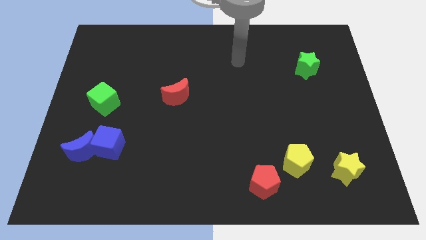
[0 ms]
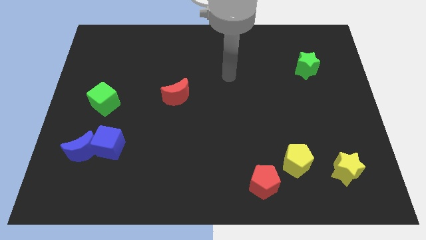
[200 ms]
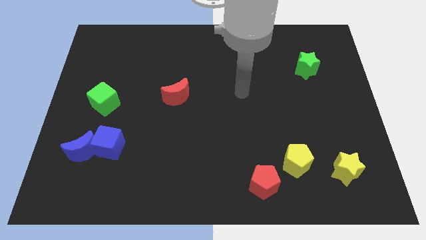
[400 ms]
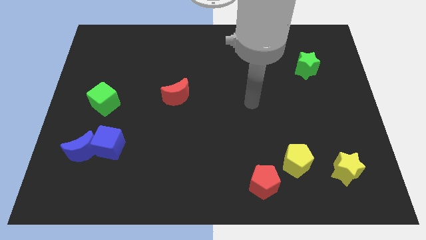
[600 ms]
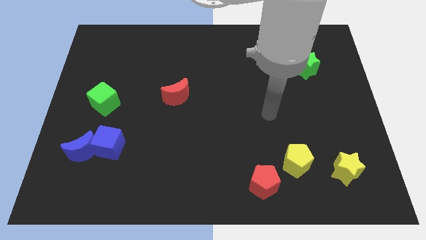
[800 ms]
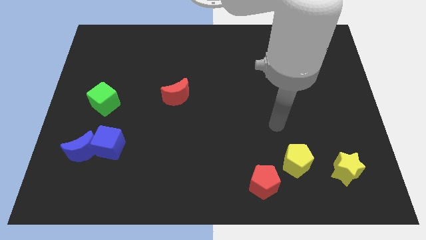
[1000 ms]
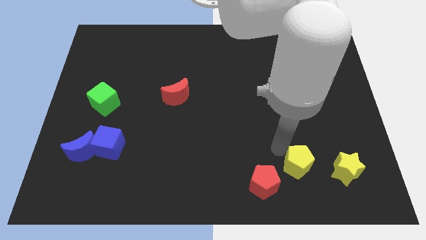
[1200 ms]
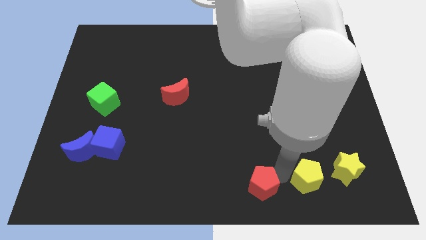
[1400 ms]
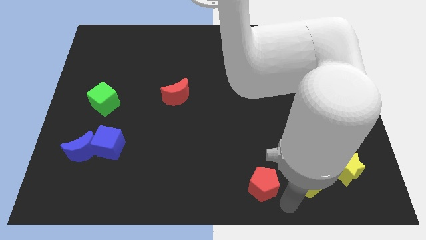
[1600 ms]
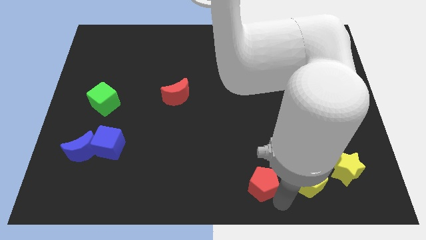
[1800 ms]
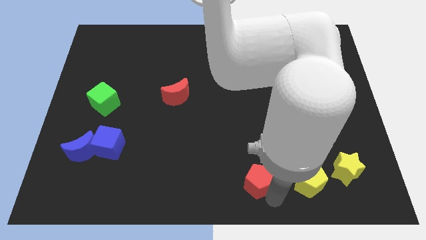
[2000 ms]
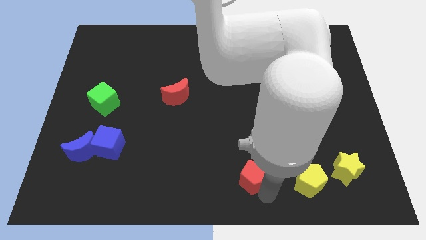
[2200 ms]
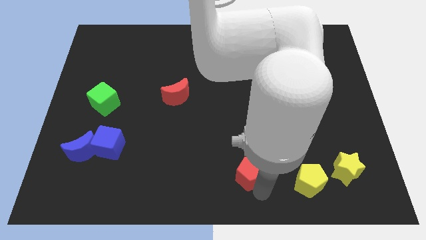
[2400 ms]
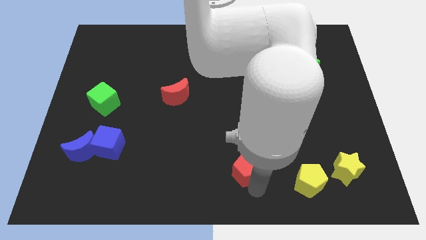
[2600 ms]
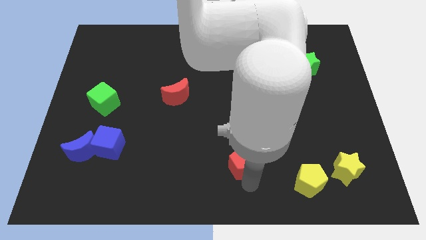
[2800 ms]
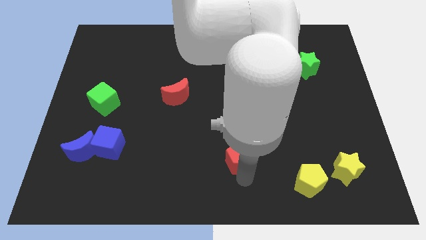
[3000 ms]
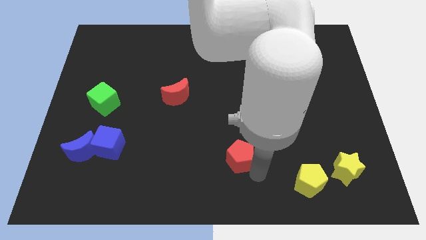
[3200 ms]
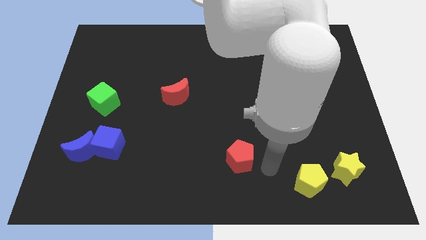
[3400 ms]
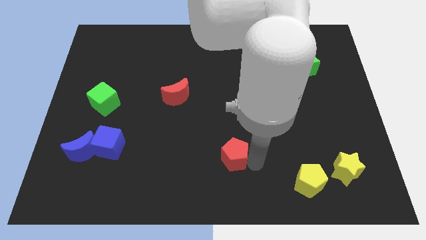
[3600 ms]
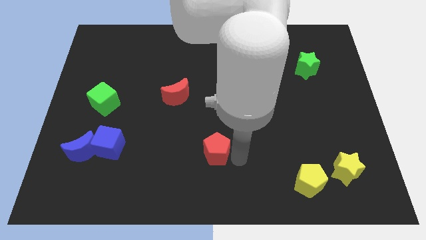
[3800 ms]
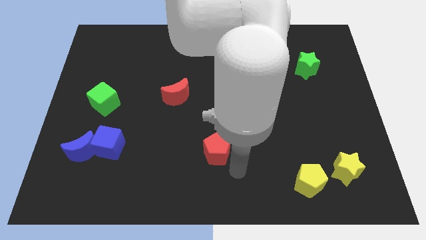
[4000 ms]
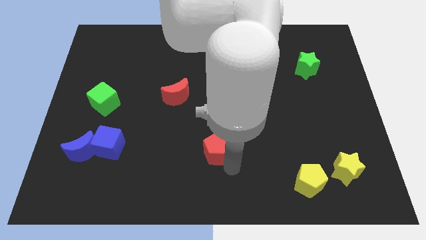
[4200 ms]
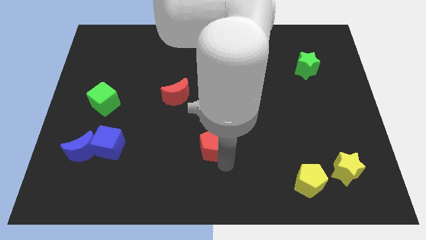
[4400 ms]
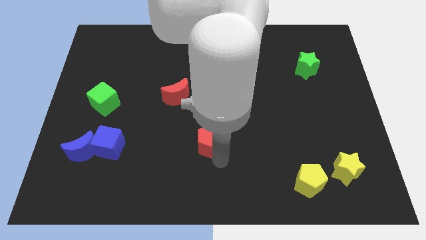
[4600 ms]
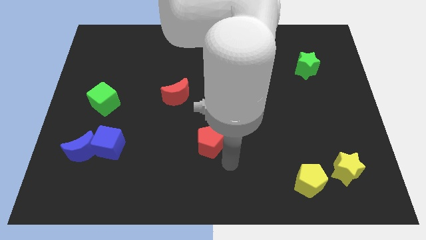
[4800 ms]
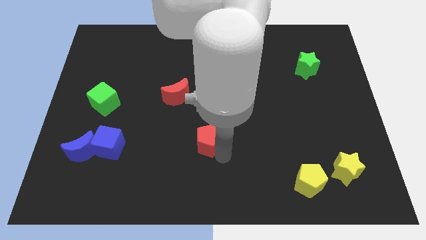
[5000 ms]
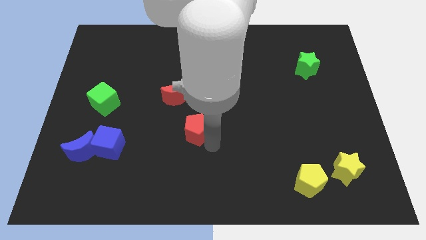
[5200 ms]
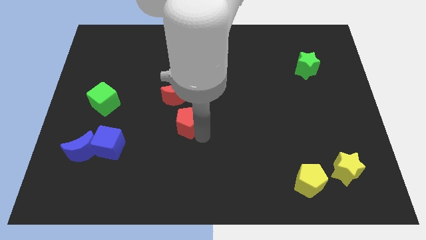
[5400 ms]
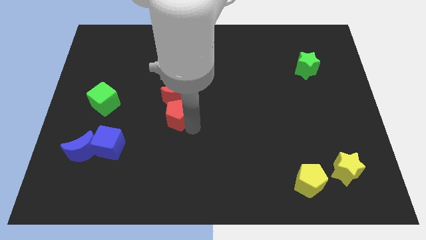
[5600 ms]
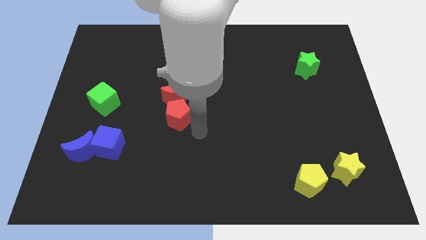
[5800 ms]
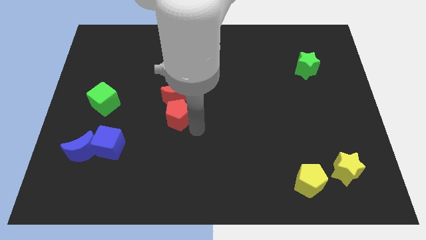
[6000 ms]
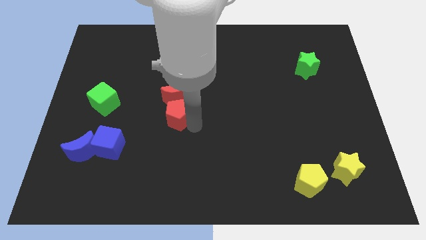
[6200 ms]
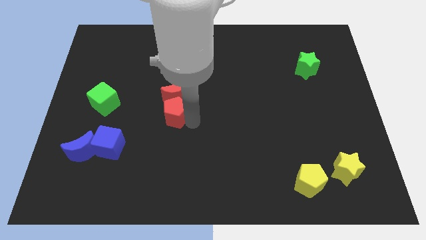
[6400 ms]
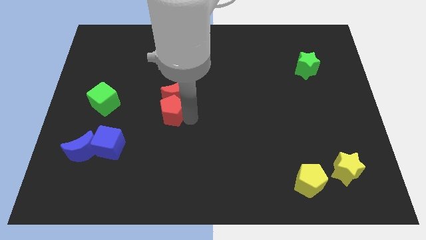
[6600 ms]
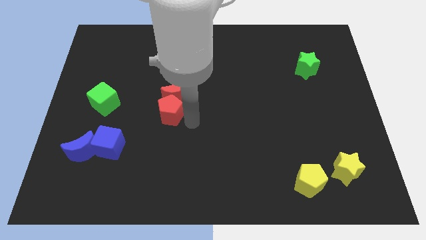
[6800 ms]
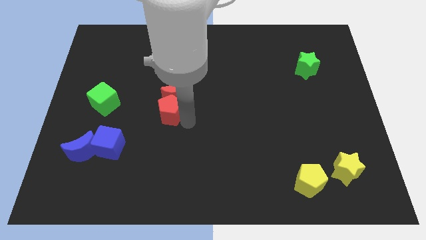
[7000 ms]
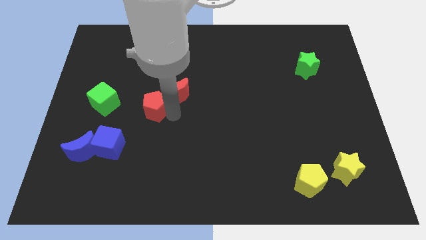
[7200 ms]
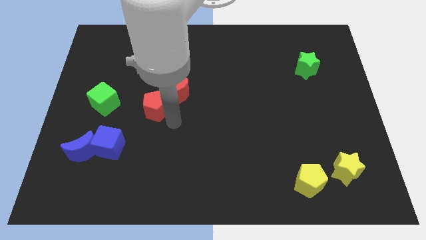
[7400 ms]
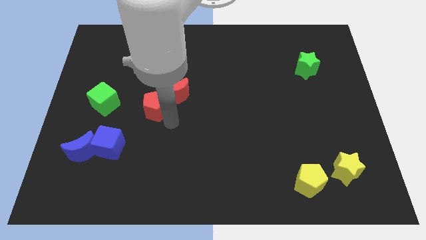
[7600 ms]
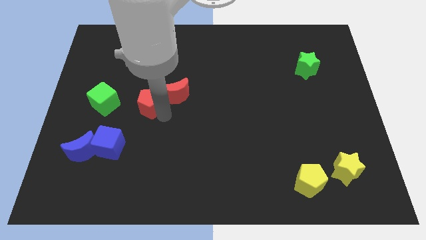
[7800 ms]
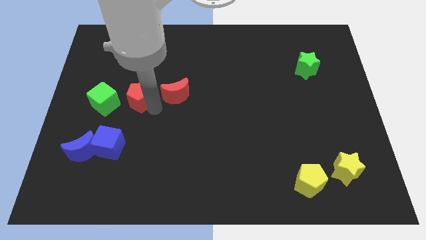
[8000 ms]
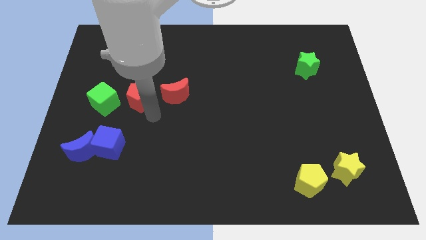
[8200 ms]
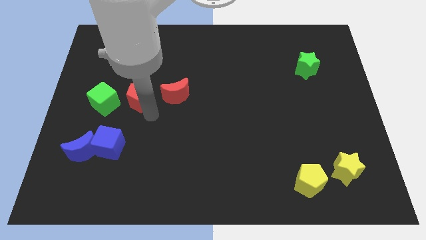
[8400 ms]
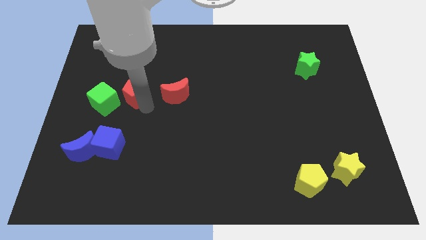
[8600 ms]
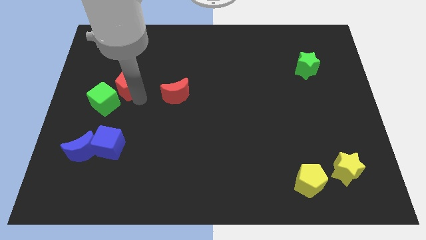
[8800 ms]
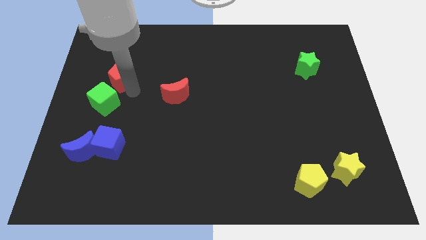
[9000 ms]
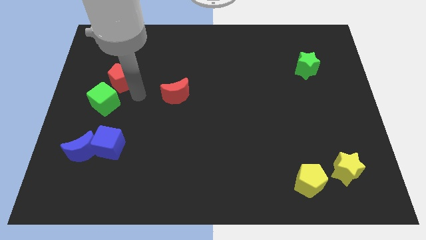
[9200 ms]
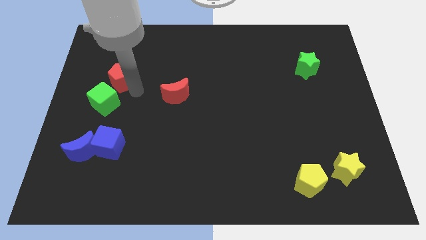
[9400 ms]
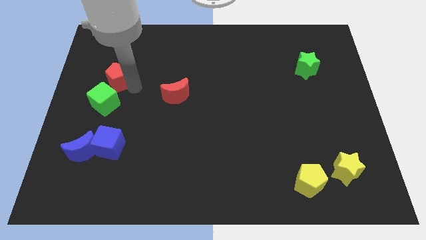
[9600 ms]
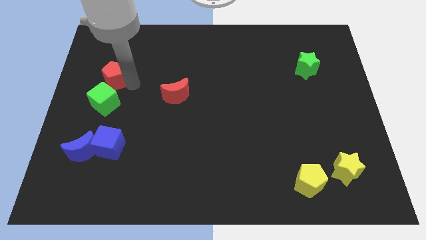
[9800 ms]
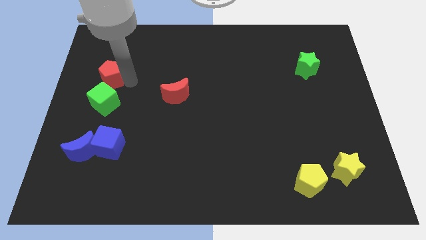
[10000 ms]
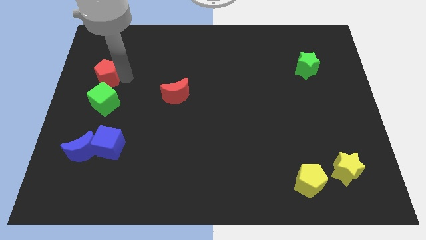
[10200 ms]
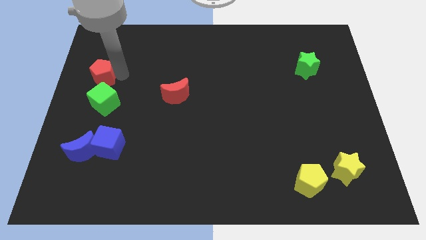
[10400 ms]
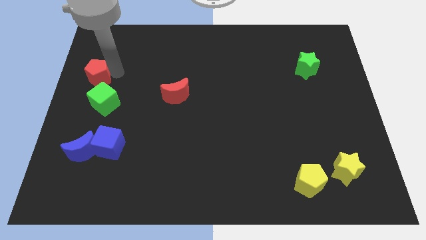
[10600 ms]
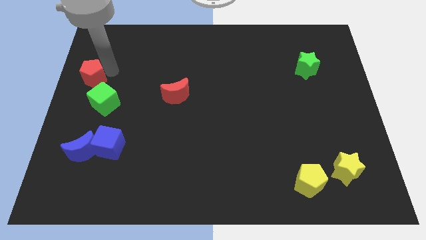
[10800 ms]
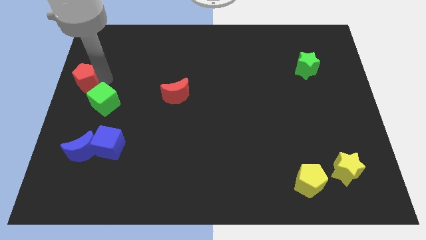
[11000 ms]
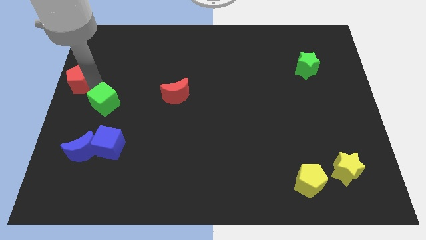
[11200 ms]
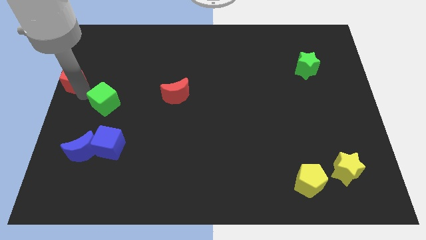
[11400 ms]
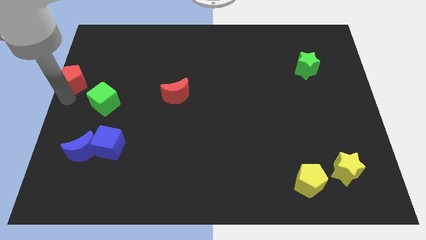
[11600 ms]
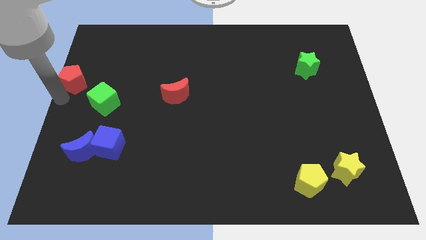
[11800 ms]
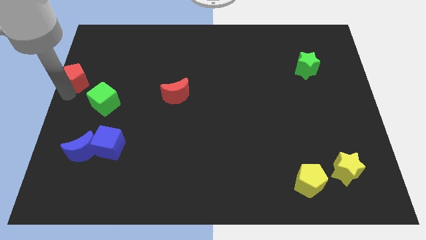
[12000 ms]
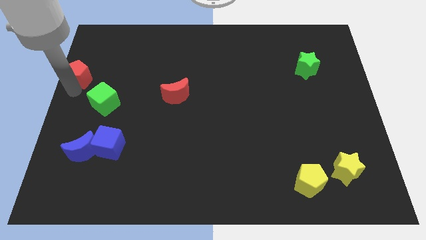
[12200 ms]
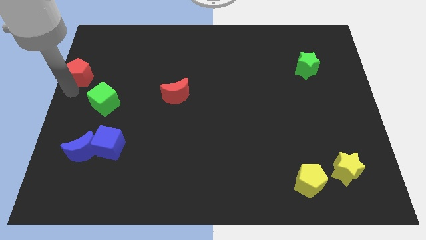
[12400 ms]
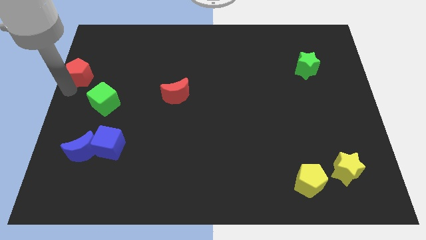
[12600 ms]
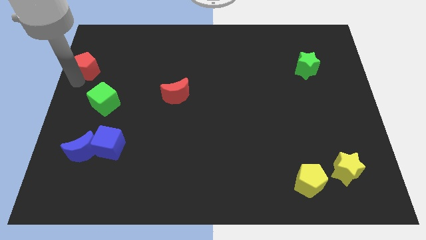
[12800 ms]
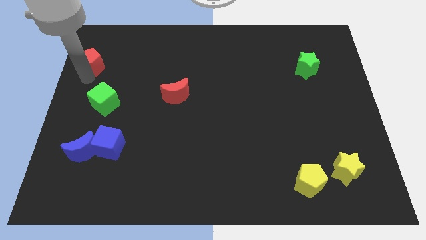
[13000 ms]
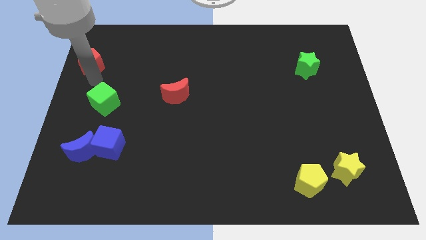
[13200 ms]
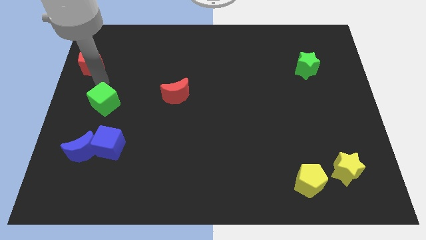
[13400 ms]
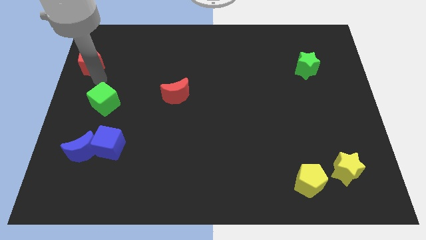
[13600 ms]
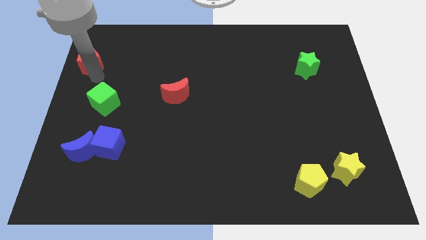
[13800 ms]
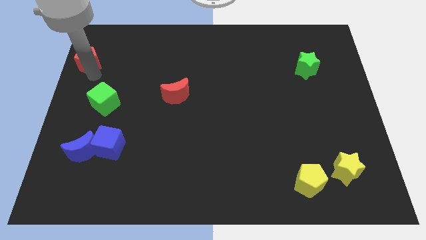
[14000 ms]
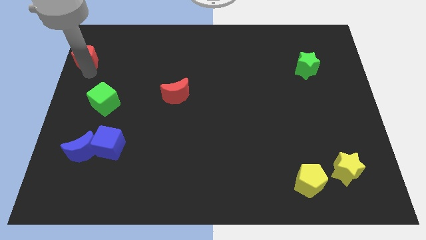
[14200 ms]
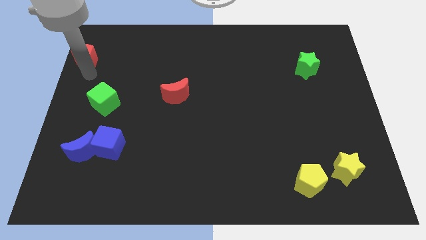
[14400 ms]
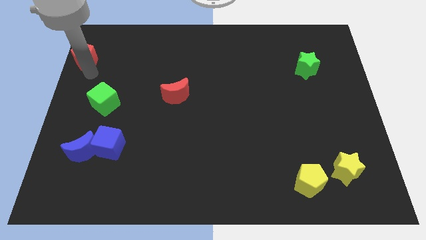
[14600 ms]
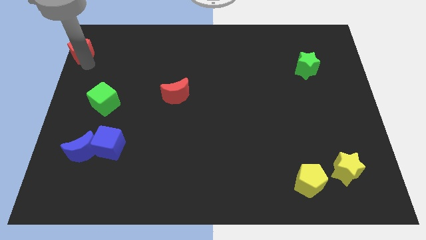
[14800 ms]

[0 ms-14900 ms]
put the red pentagon to the upper left corner
